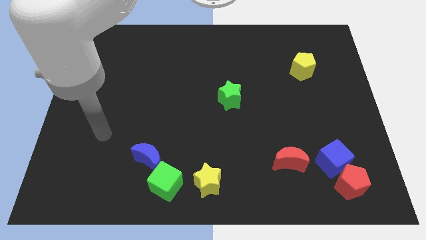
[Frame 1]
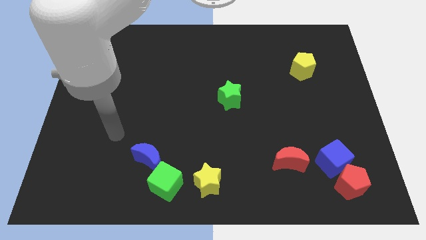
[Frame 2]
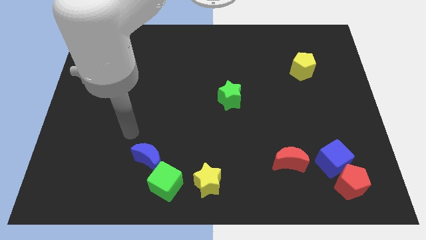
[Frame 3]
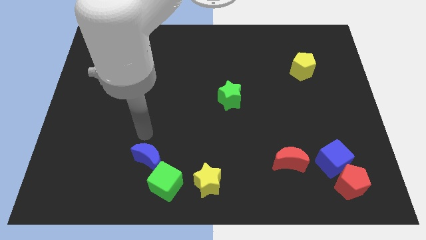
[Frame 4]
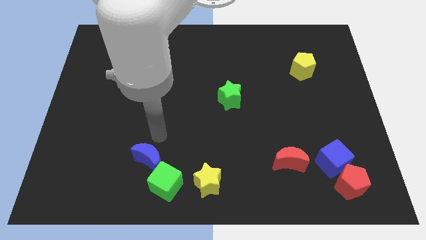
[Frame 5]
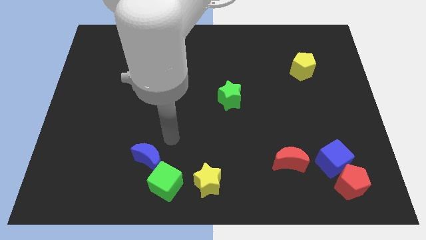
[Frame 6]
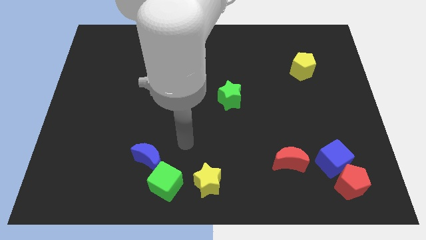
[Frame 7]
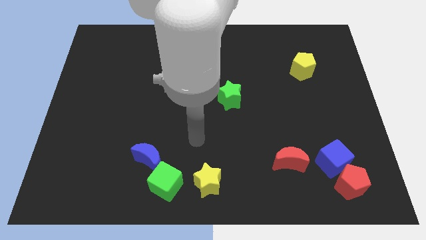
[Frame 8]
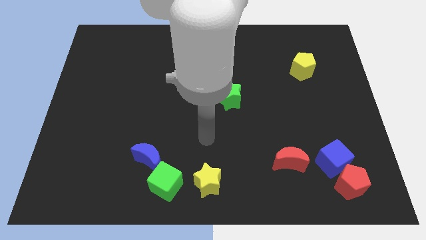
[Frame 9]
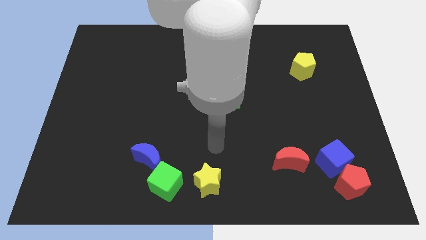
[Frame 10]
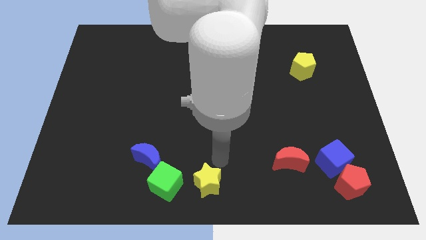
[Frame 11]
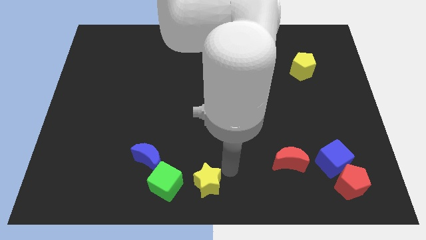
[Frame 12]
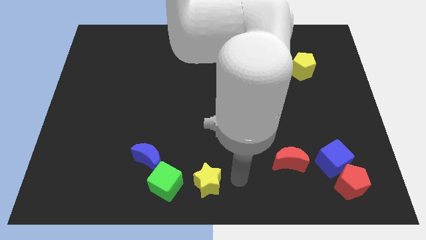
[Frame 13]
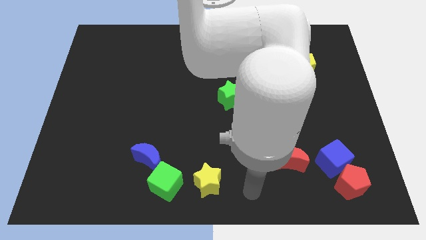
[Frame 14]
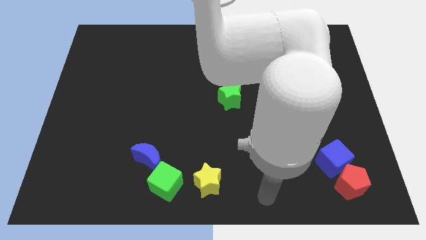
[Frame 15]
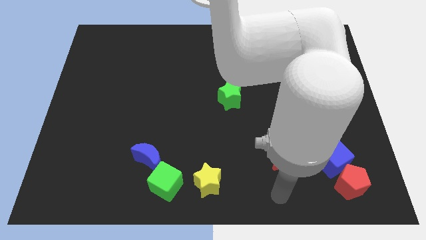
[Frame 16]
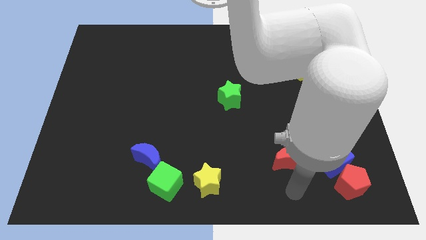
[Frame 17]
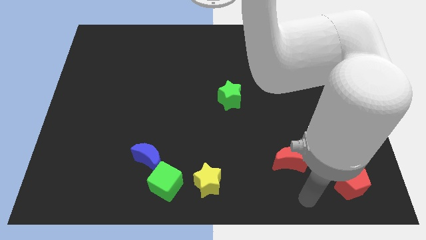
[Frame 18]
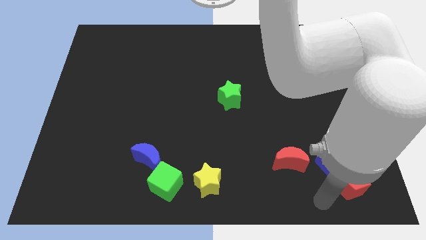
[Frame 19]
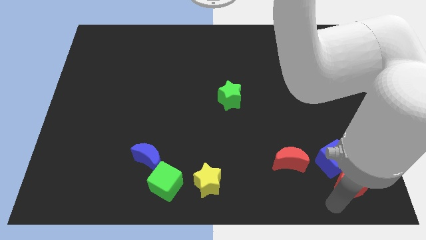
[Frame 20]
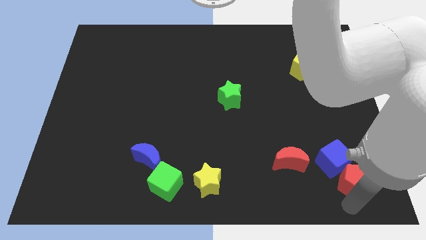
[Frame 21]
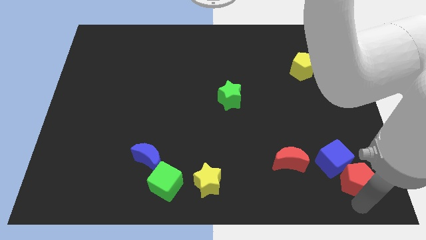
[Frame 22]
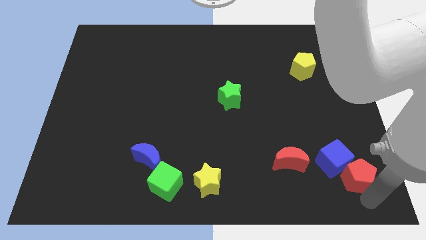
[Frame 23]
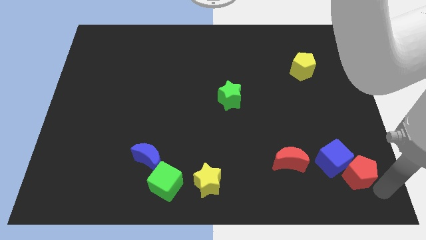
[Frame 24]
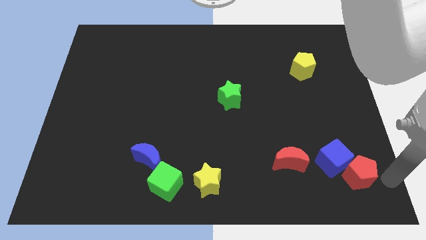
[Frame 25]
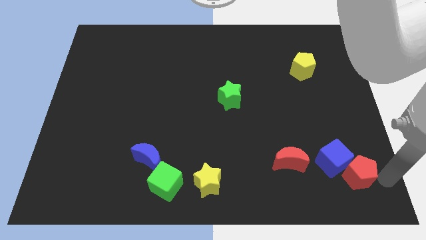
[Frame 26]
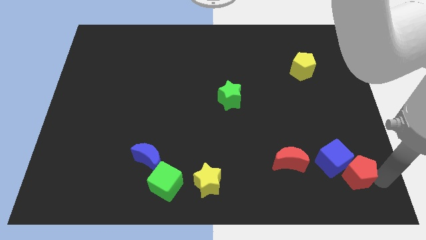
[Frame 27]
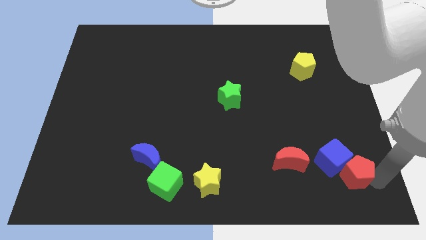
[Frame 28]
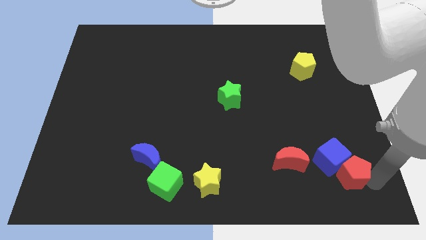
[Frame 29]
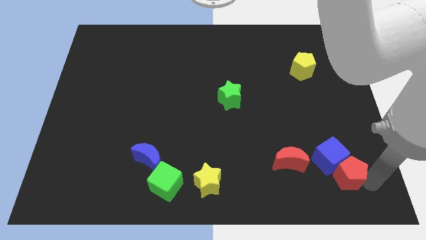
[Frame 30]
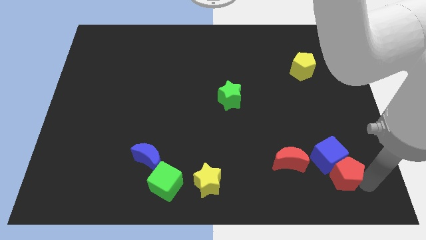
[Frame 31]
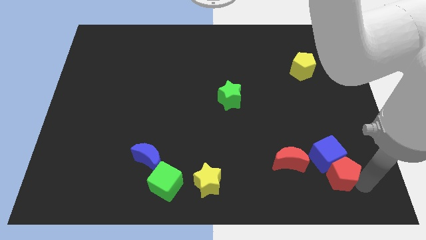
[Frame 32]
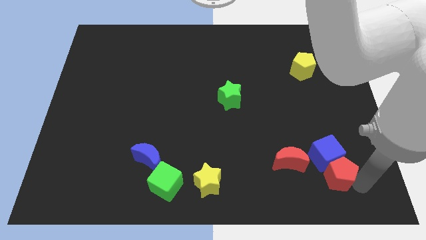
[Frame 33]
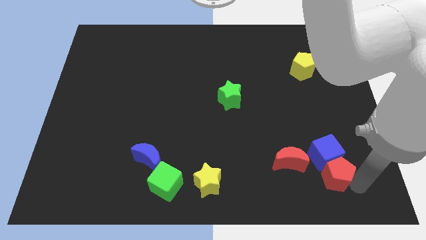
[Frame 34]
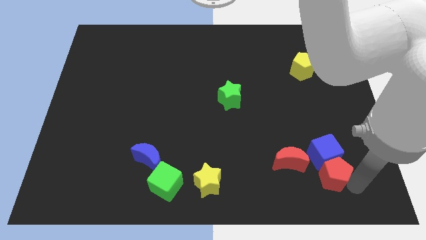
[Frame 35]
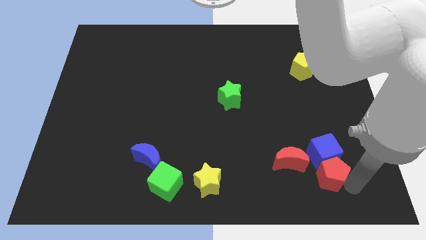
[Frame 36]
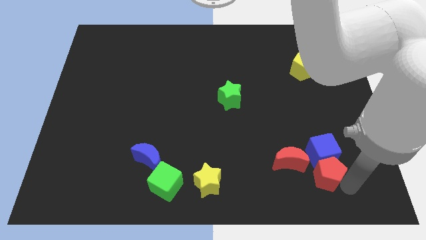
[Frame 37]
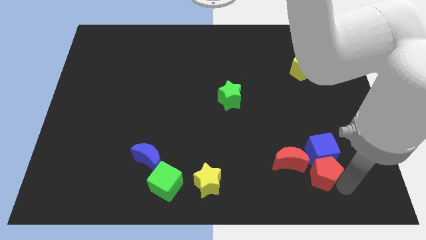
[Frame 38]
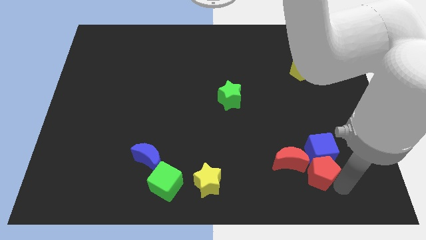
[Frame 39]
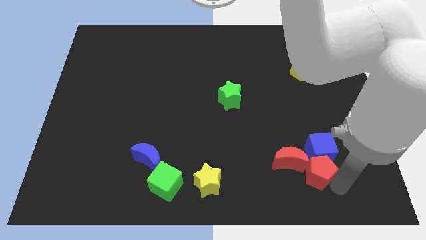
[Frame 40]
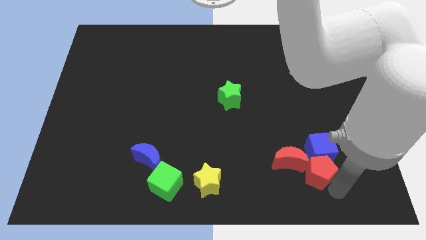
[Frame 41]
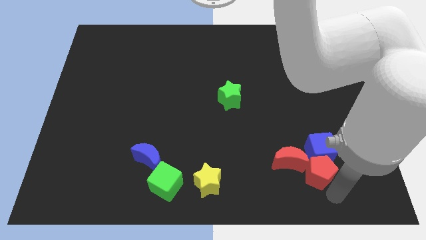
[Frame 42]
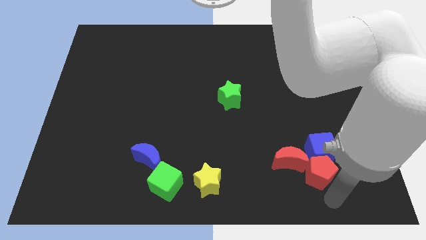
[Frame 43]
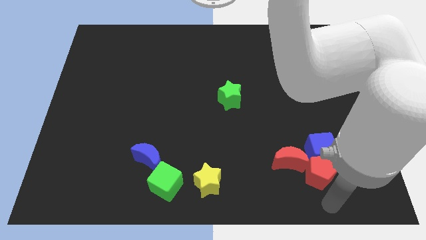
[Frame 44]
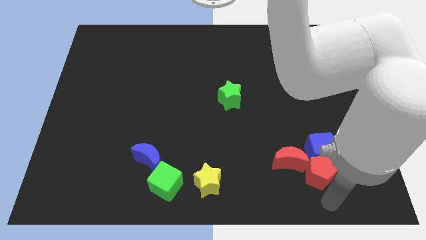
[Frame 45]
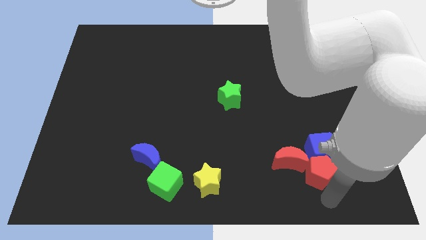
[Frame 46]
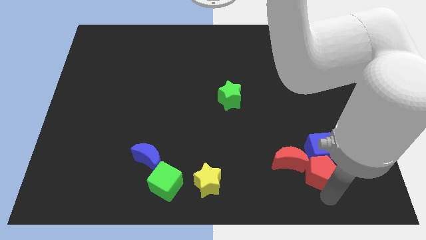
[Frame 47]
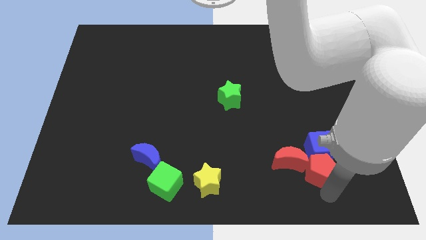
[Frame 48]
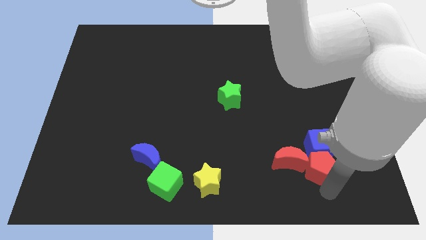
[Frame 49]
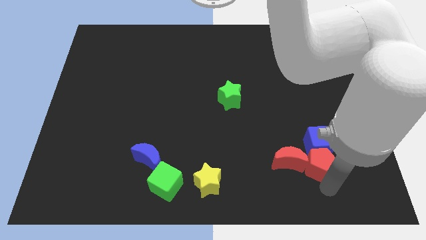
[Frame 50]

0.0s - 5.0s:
push the red pentagon a bit upwards and then to the left

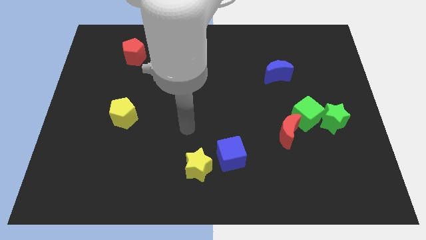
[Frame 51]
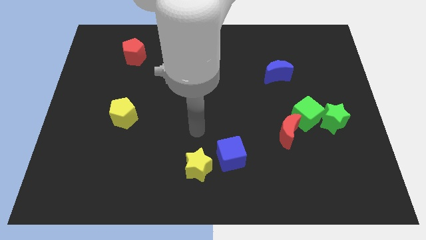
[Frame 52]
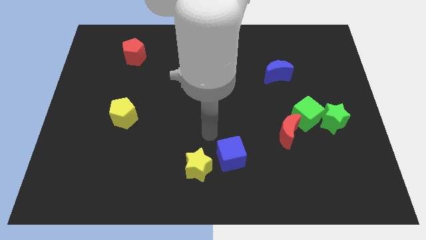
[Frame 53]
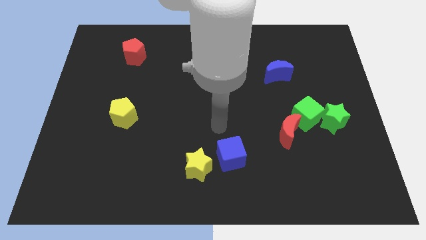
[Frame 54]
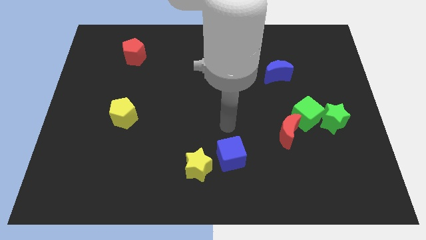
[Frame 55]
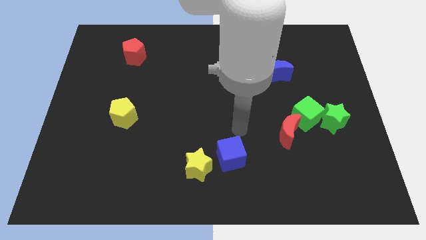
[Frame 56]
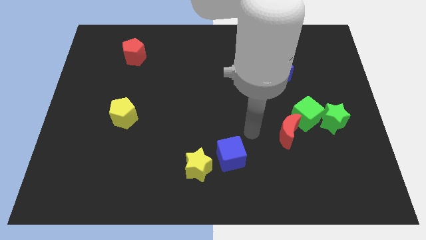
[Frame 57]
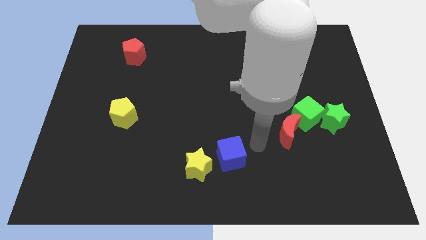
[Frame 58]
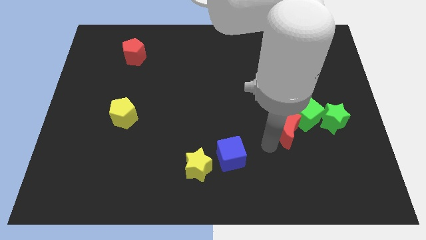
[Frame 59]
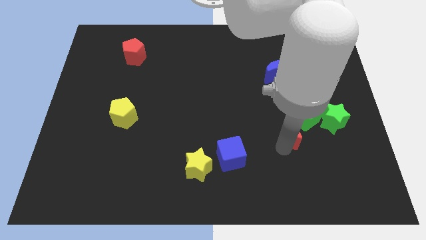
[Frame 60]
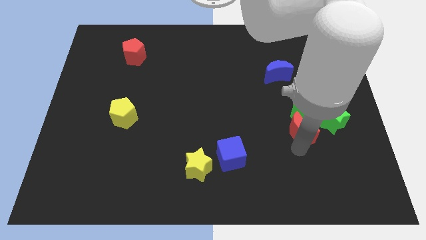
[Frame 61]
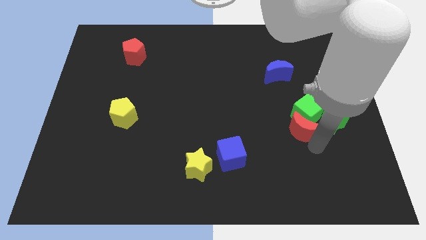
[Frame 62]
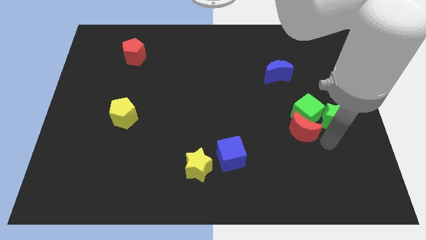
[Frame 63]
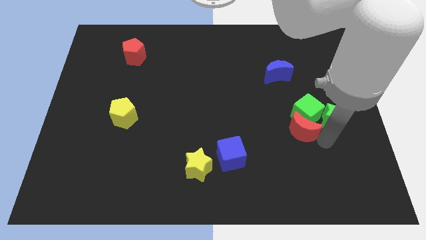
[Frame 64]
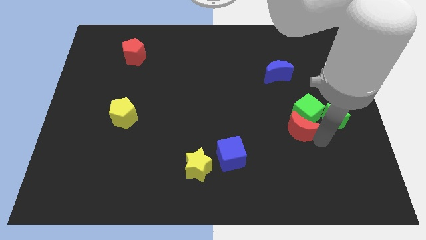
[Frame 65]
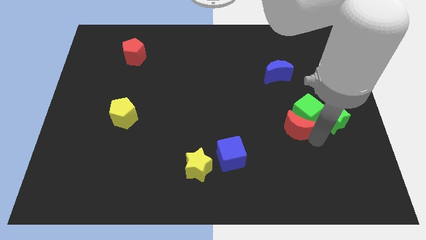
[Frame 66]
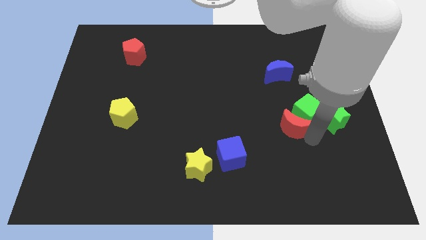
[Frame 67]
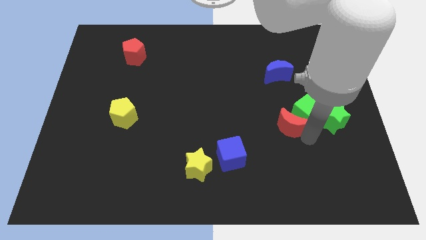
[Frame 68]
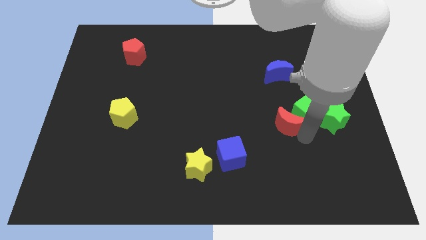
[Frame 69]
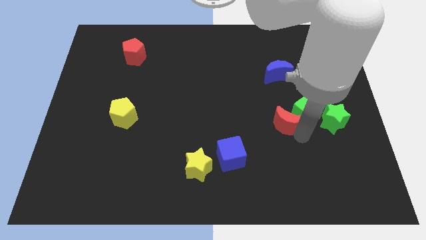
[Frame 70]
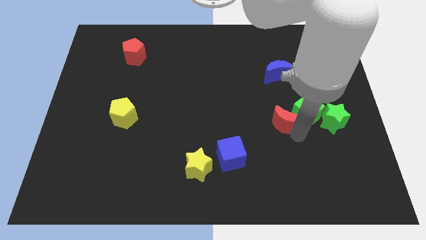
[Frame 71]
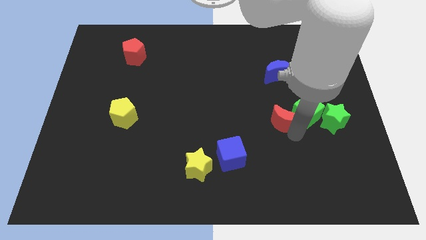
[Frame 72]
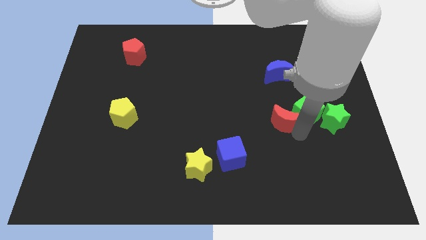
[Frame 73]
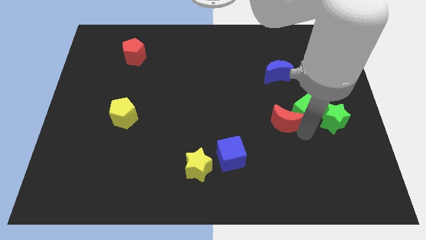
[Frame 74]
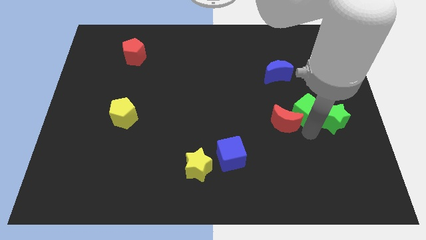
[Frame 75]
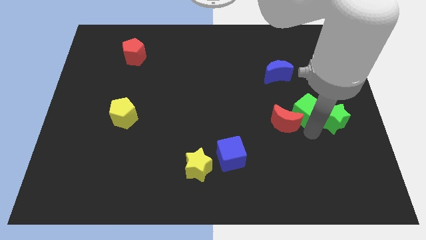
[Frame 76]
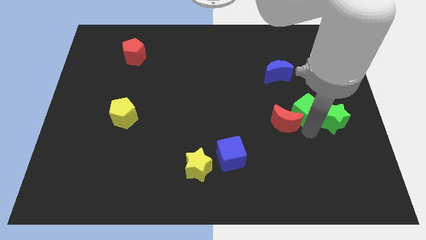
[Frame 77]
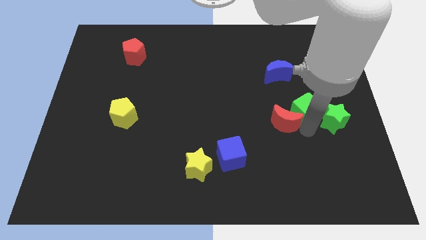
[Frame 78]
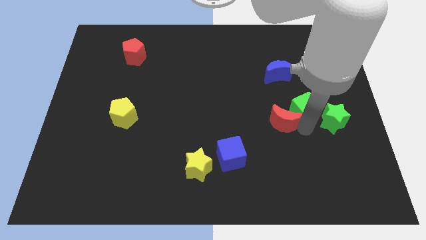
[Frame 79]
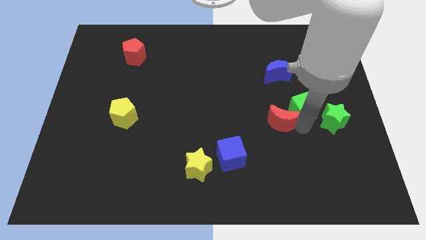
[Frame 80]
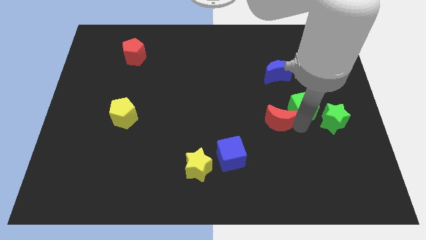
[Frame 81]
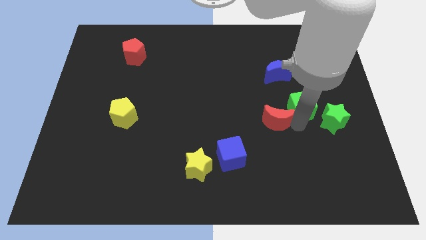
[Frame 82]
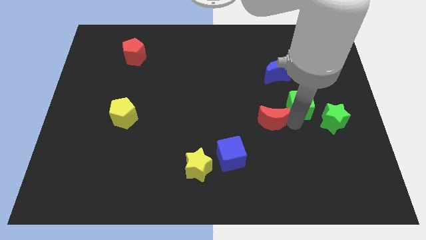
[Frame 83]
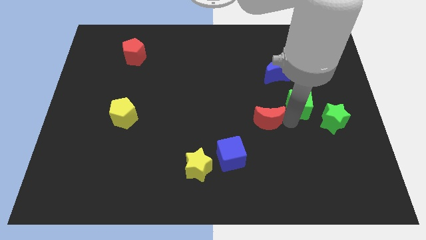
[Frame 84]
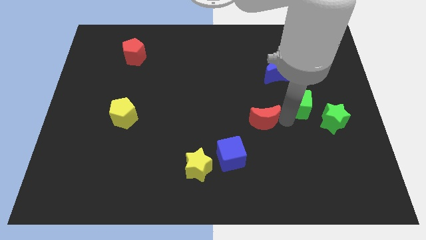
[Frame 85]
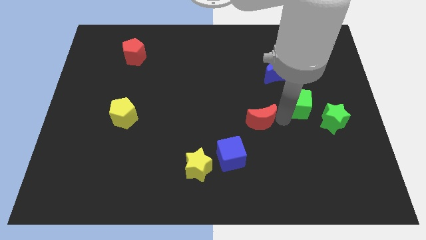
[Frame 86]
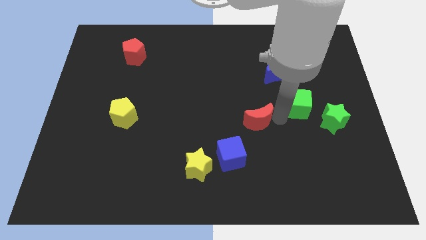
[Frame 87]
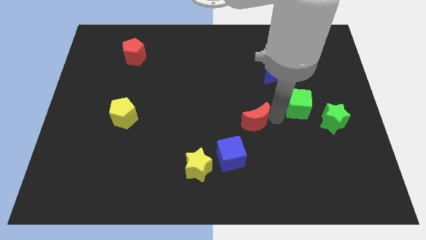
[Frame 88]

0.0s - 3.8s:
move the red moon a little bit diagonally up and to the left
